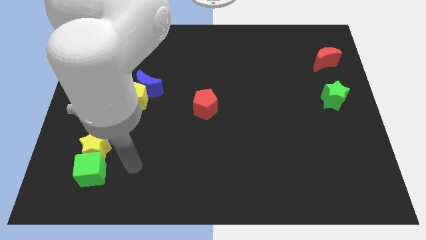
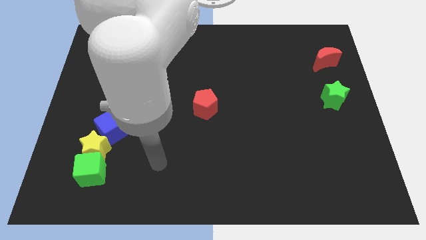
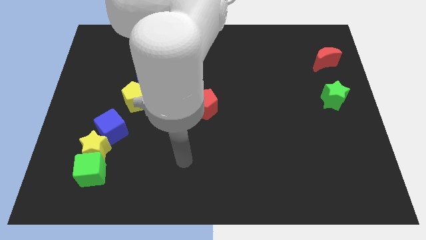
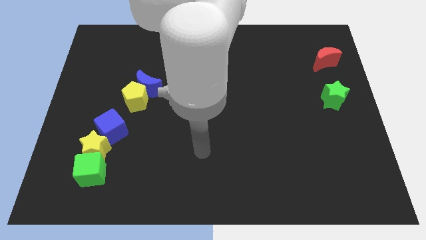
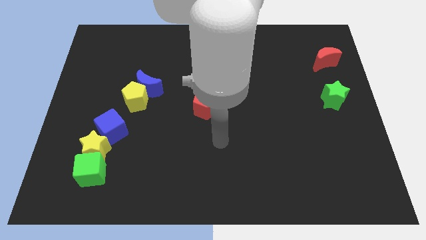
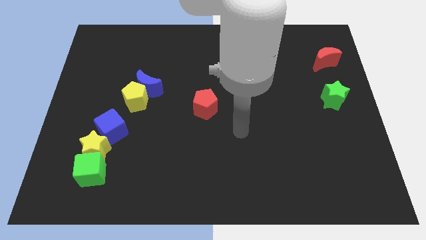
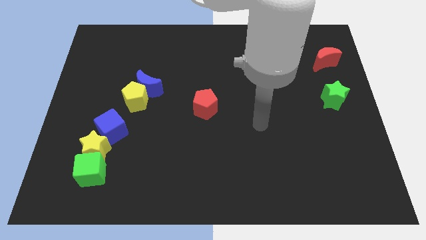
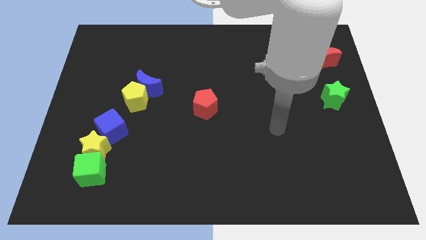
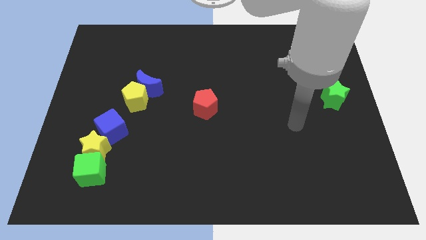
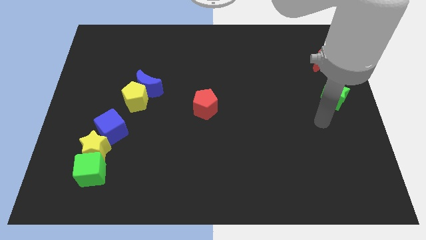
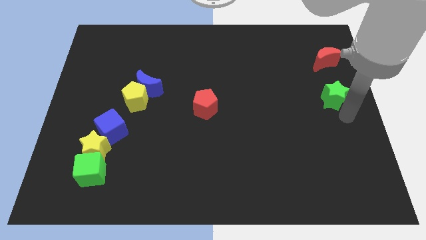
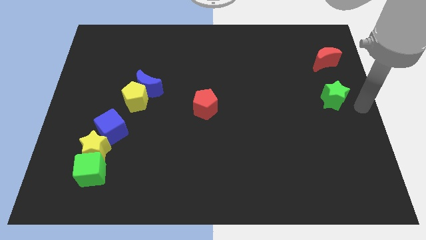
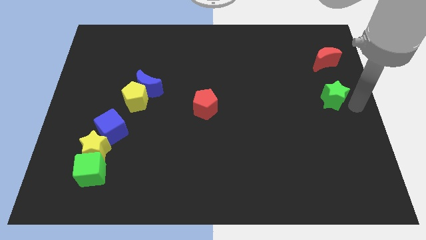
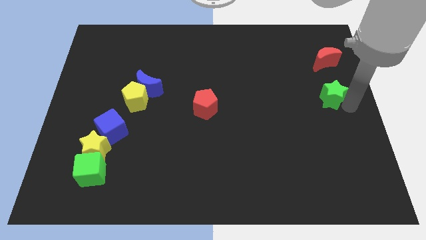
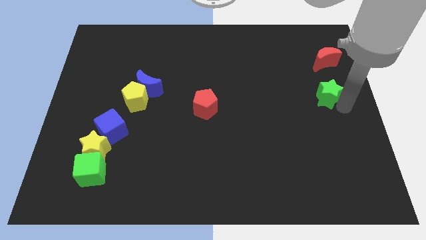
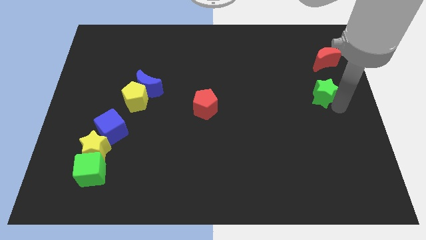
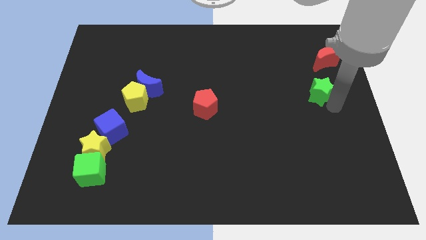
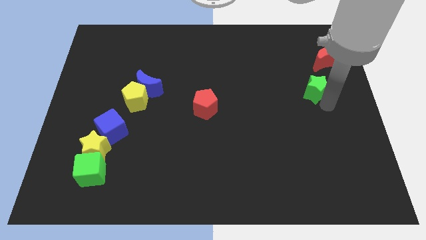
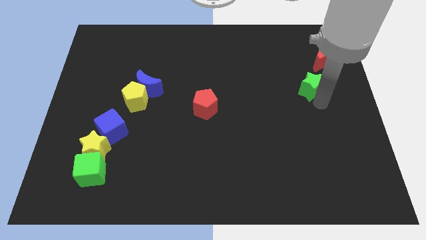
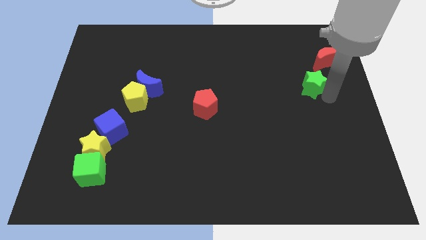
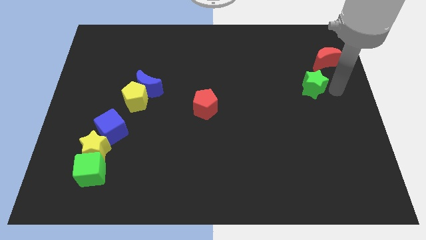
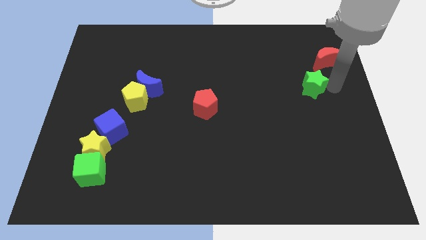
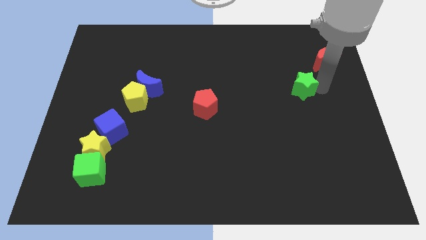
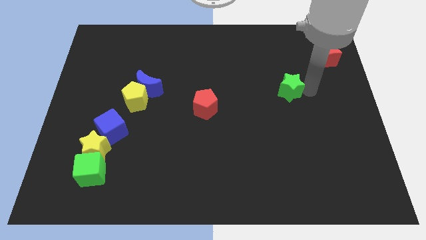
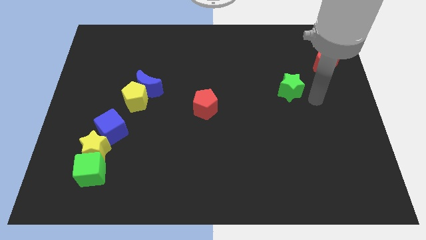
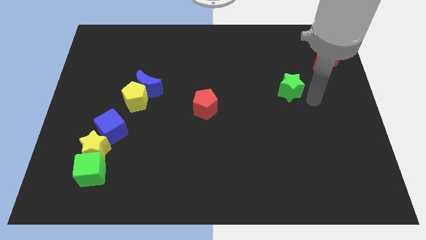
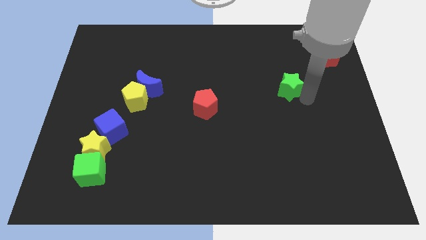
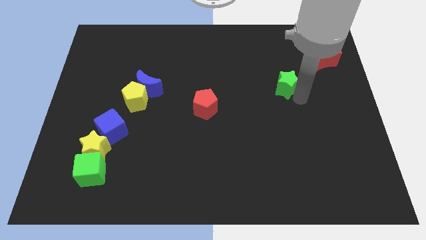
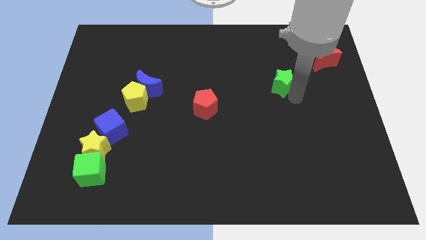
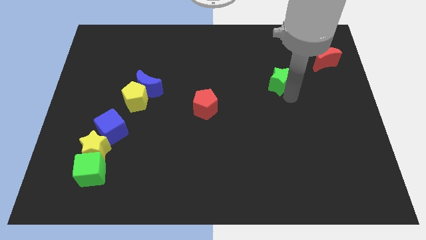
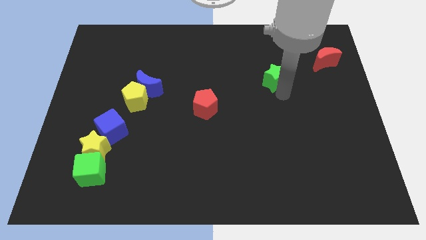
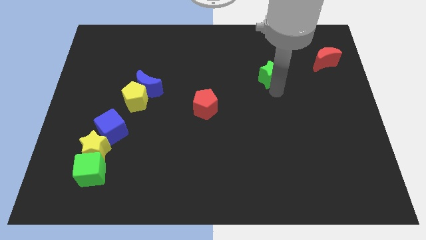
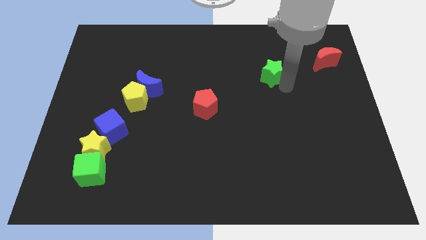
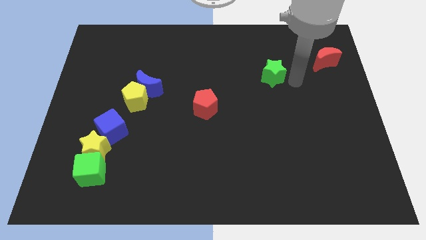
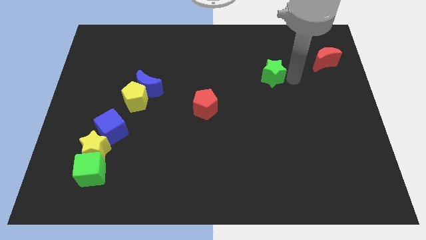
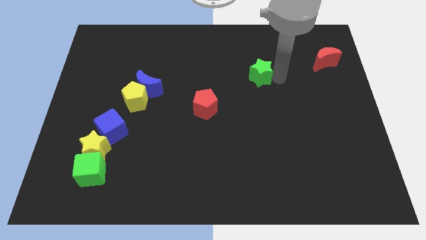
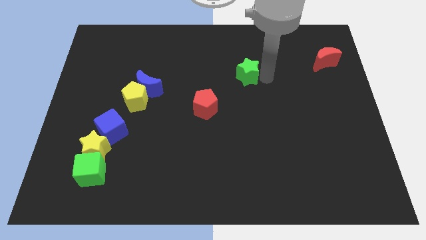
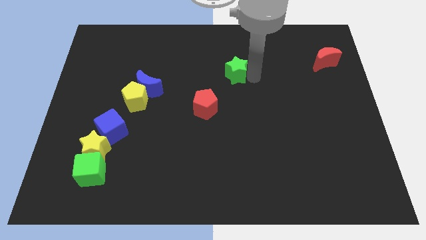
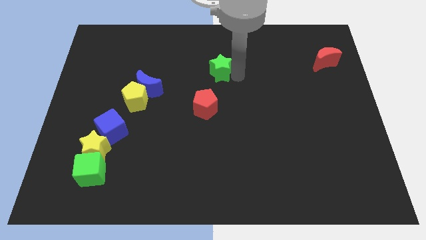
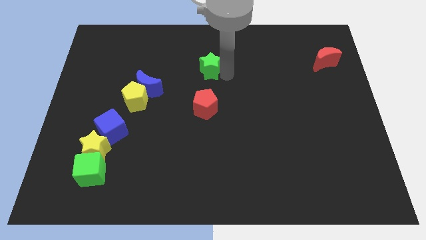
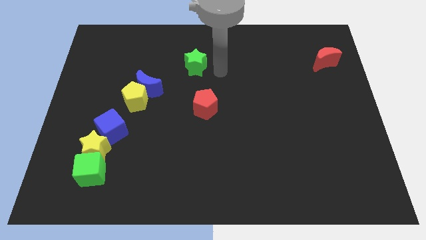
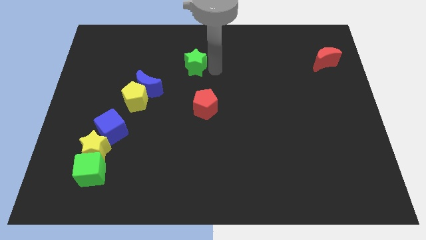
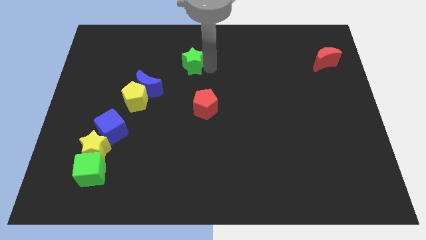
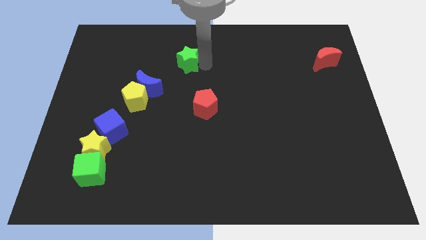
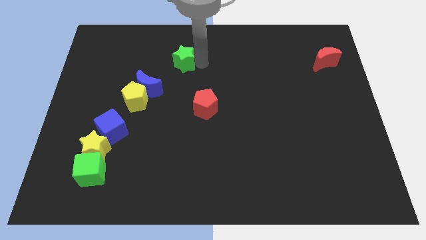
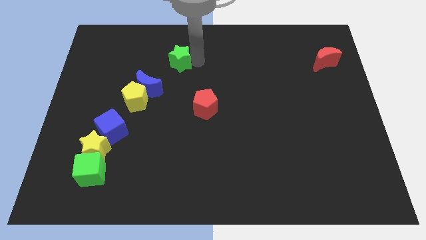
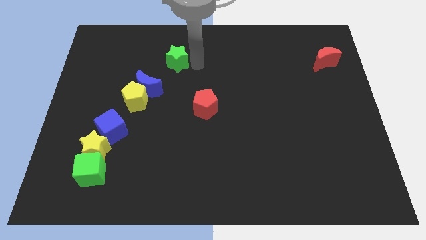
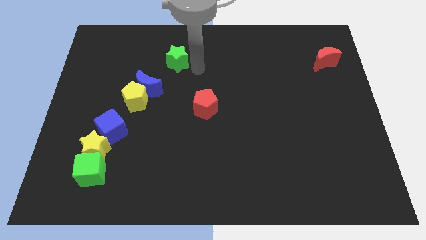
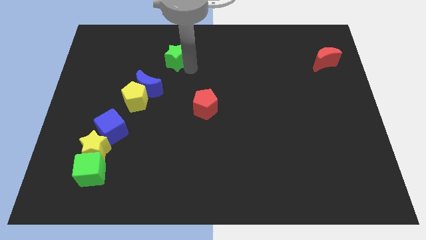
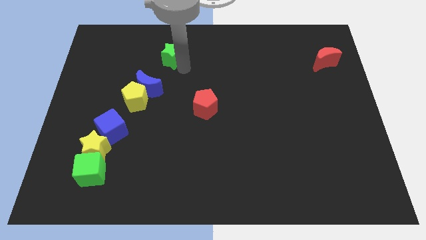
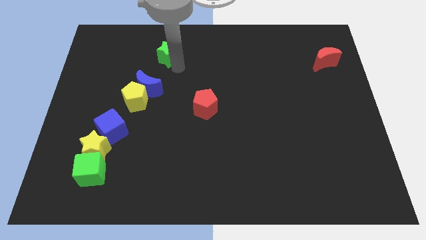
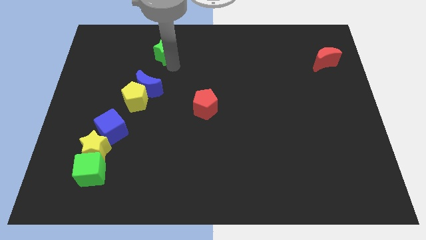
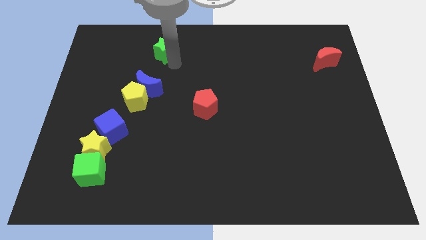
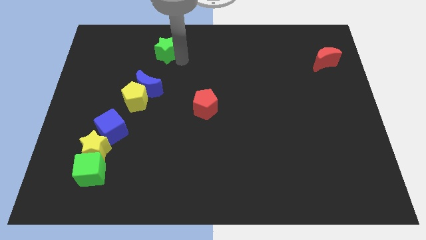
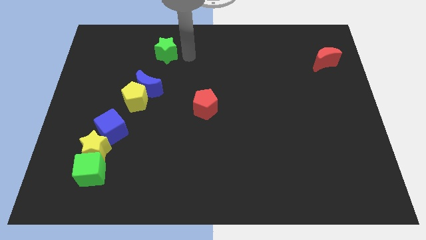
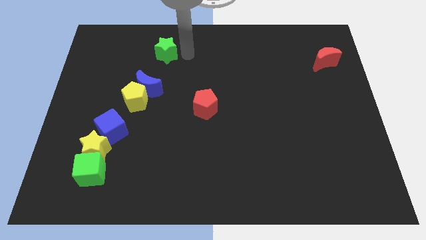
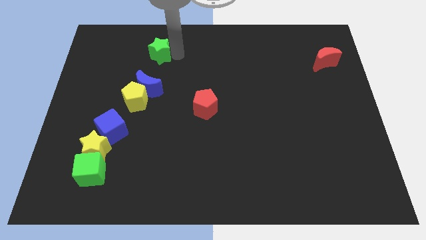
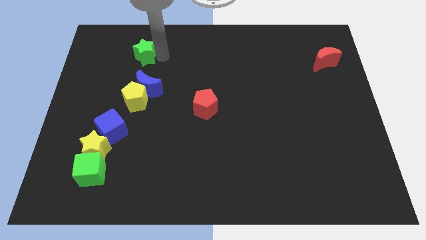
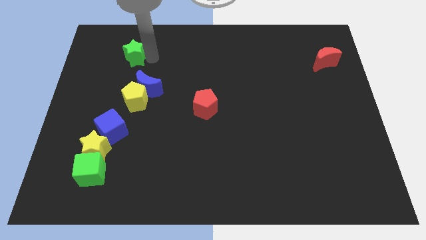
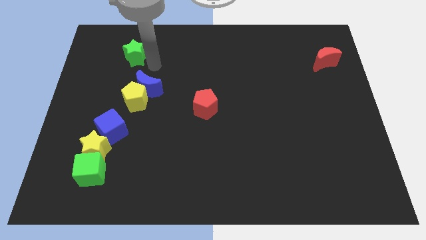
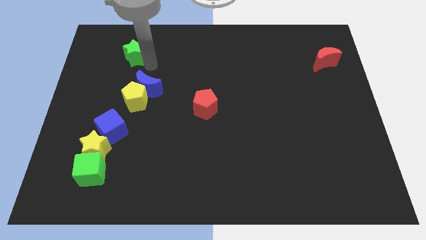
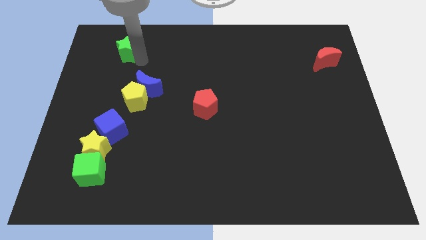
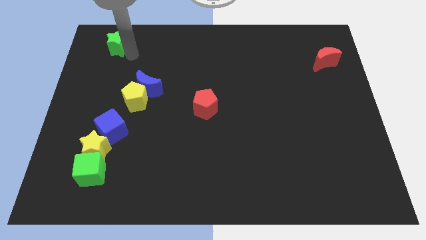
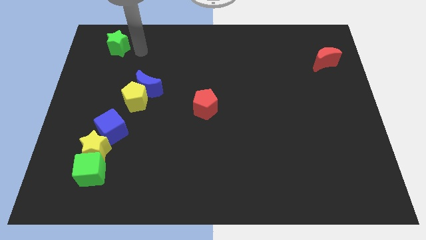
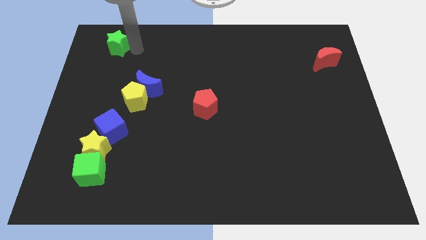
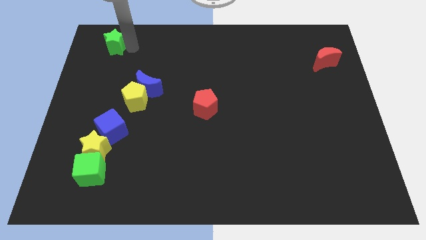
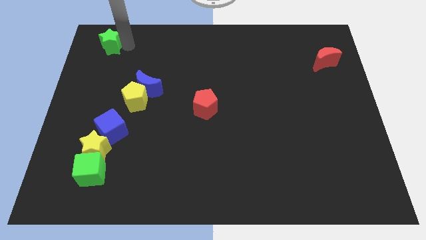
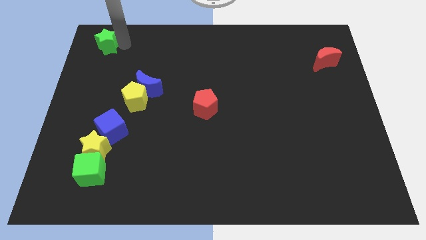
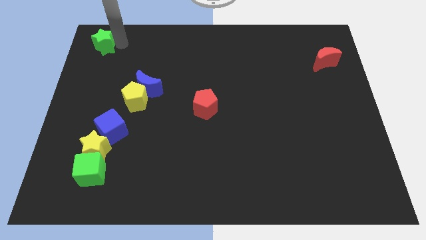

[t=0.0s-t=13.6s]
put the green star to the top left corner
